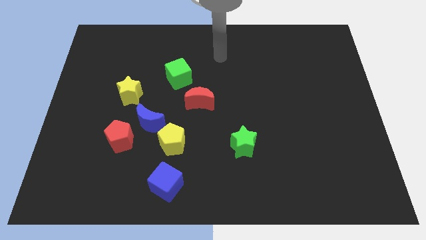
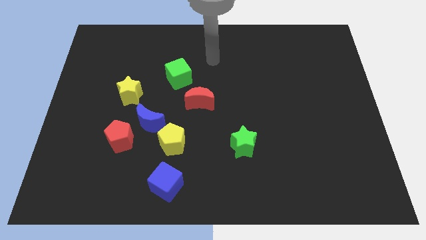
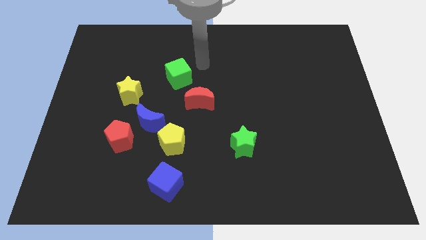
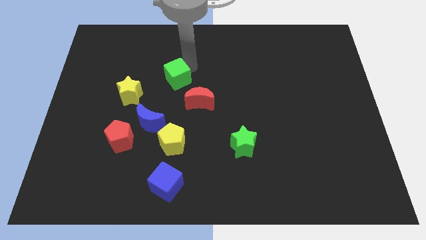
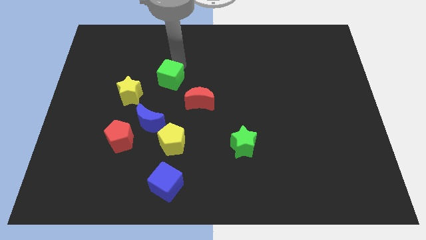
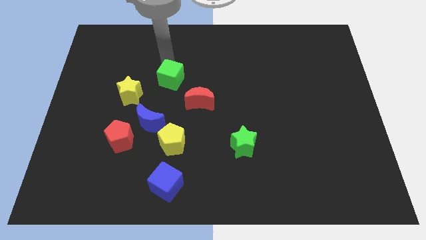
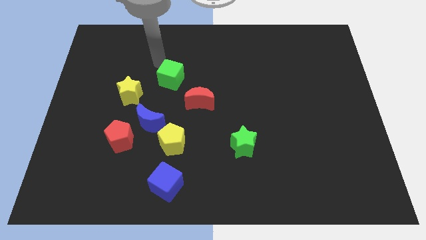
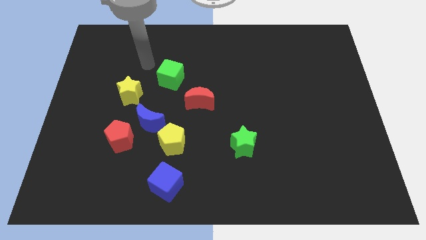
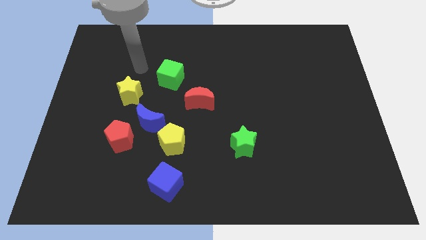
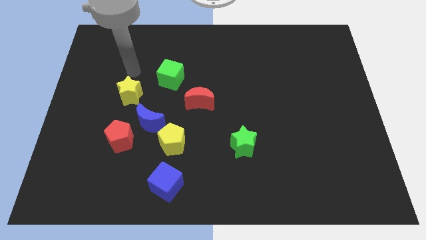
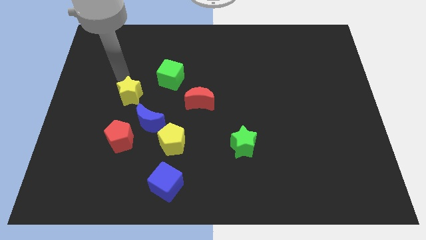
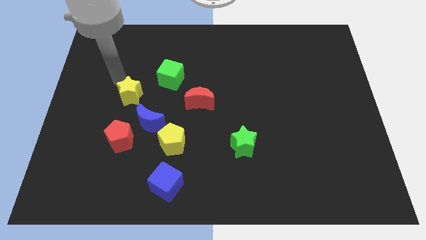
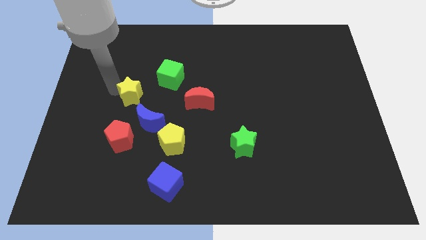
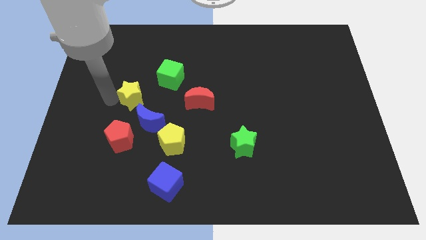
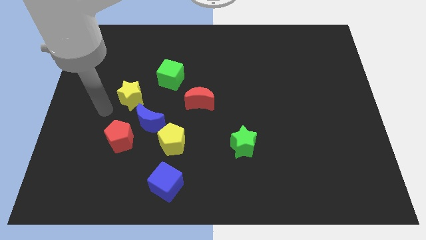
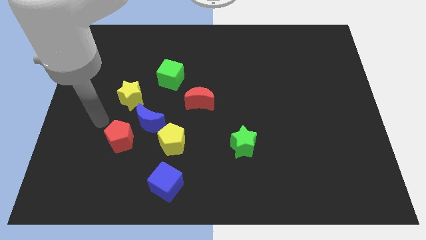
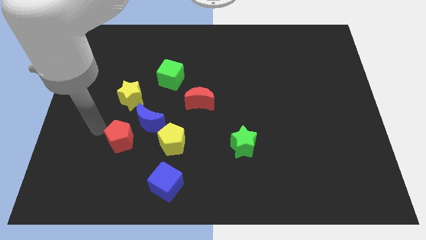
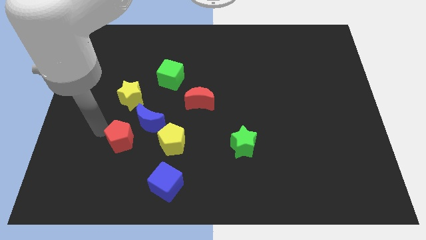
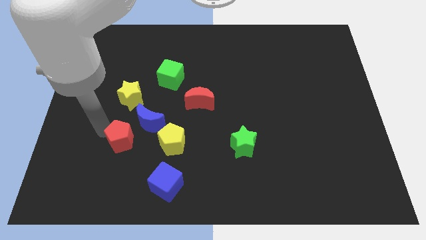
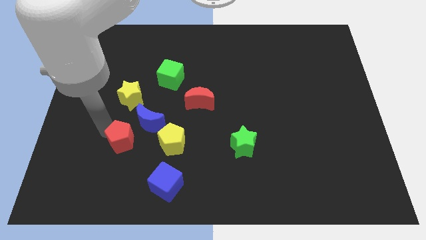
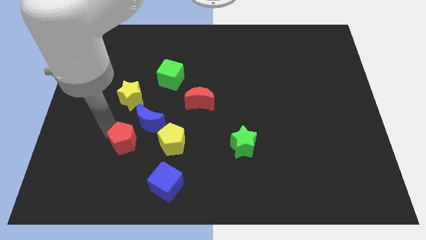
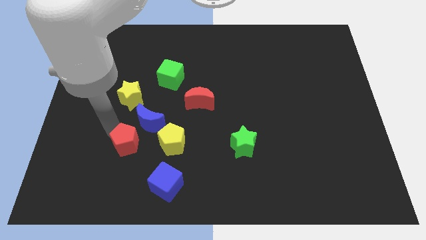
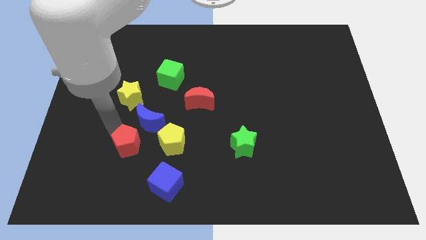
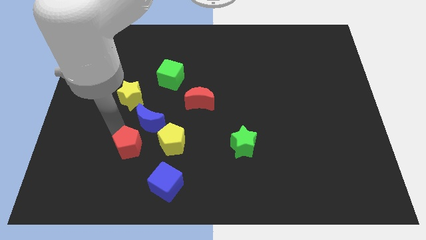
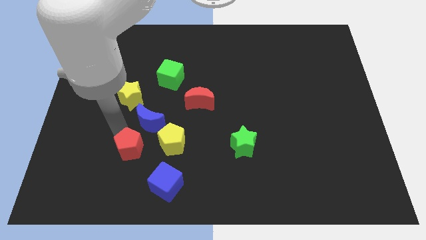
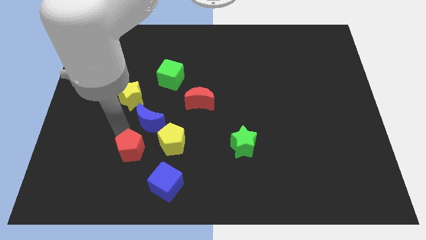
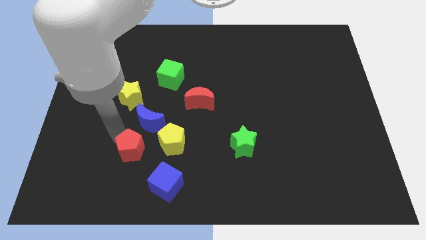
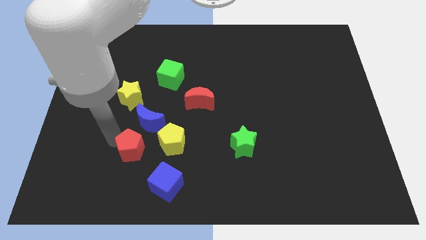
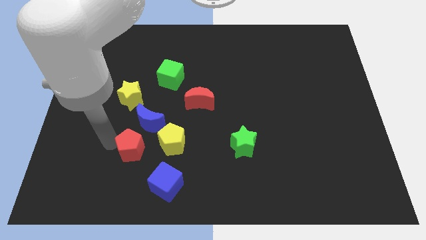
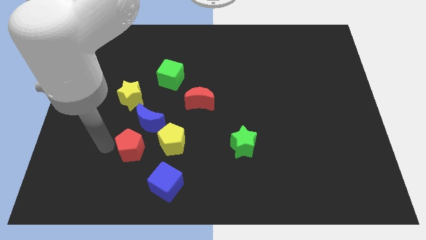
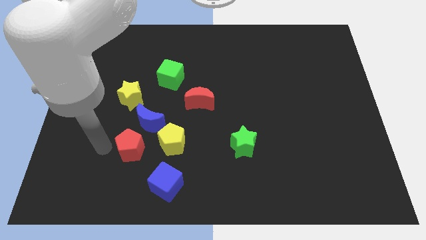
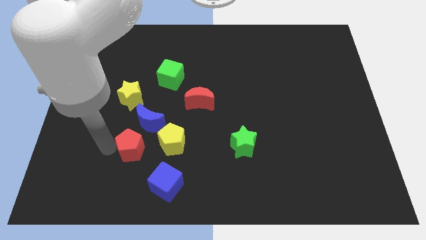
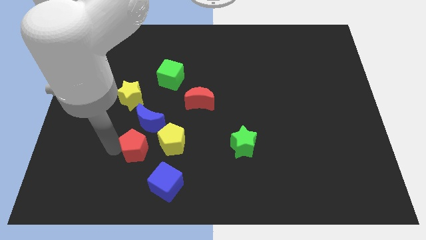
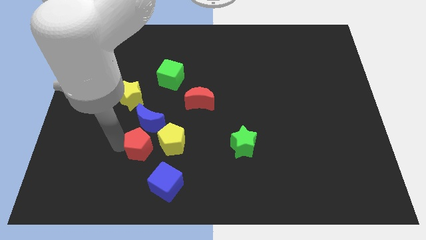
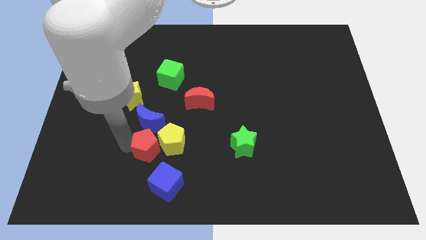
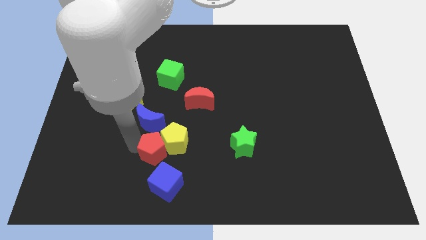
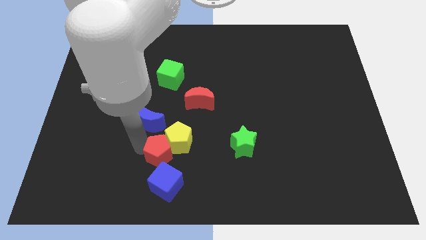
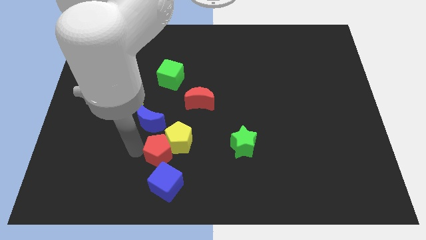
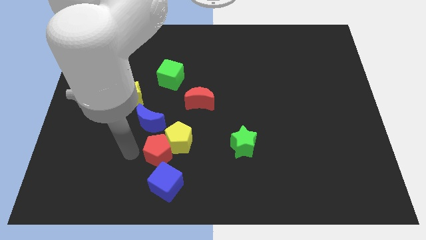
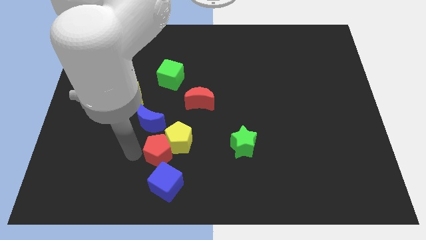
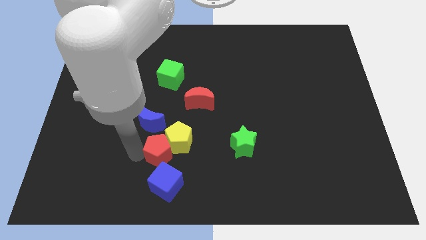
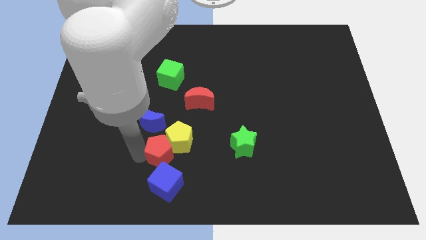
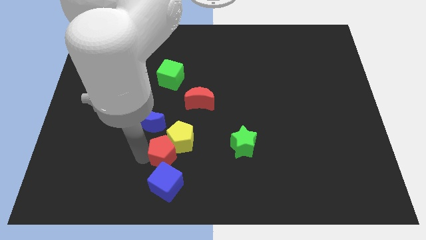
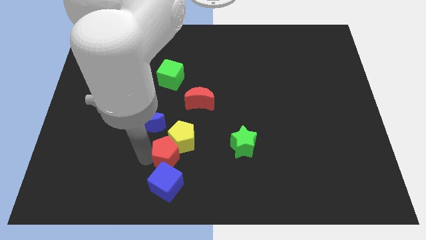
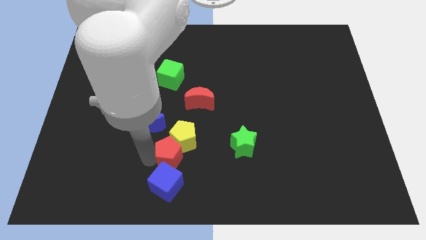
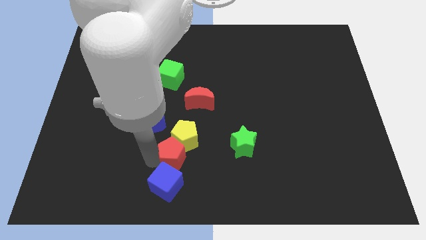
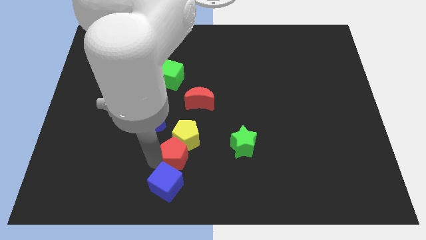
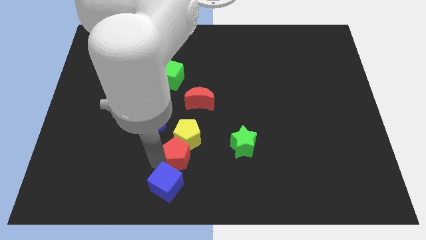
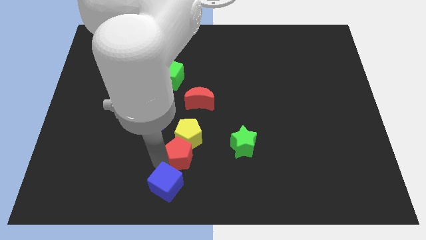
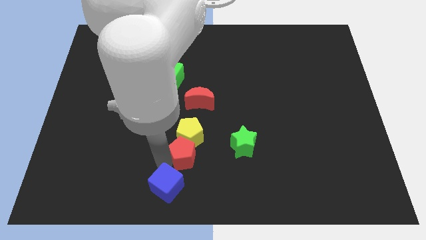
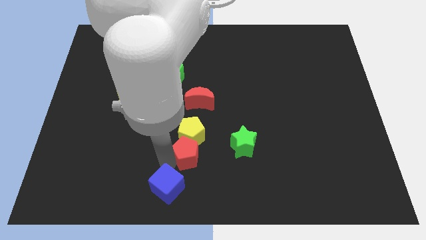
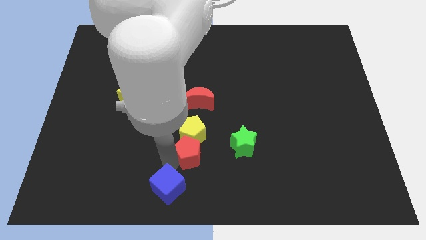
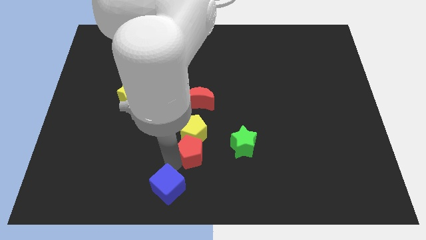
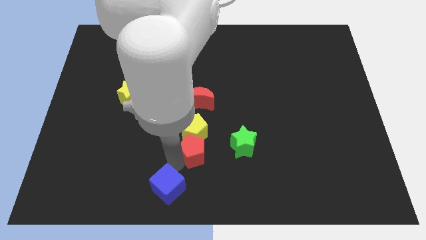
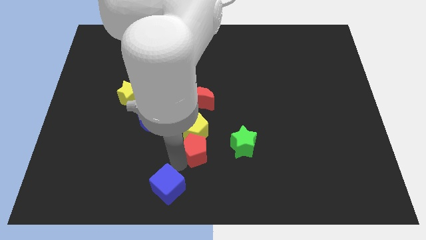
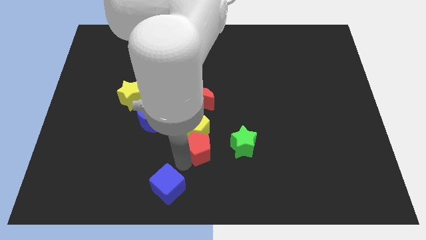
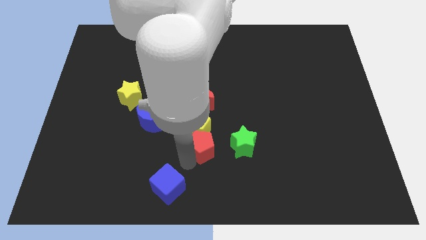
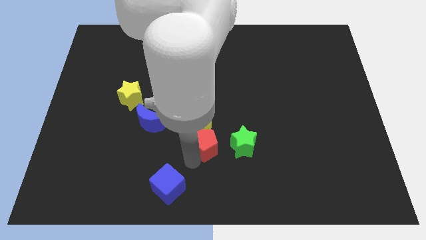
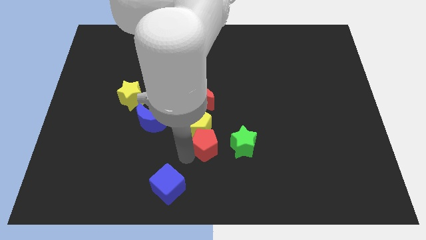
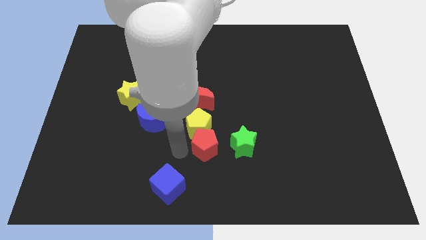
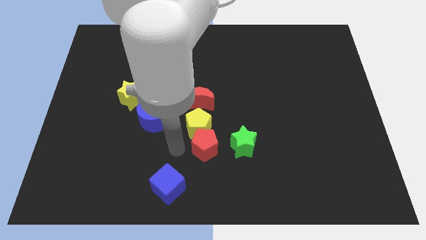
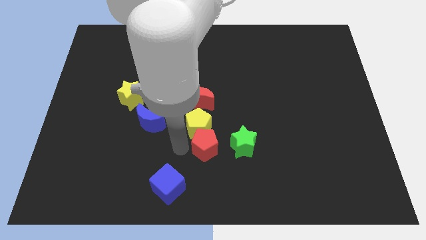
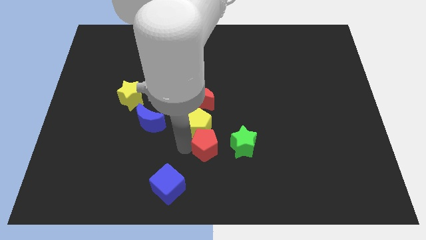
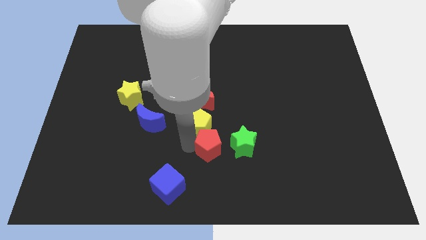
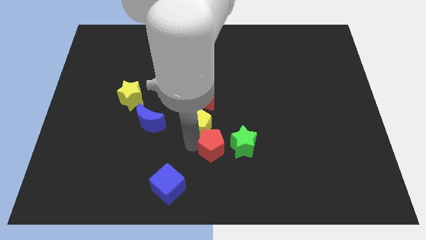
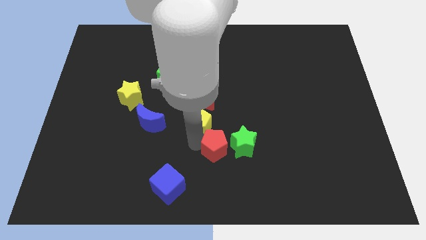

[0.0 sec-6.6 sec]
put the red pentagon next to the green star

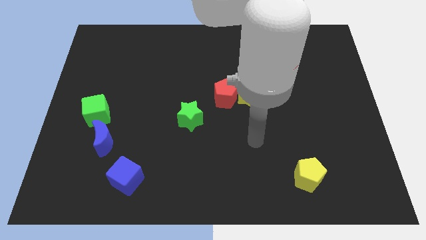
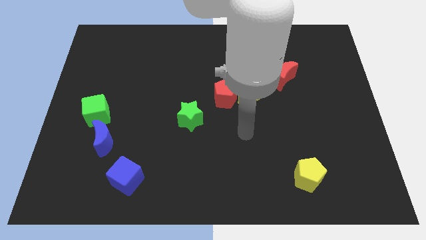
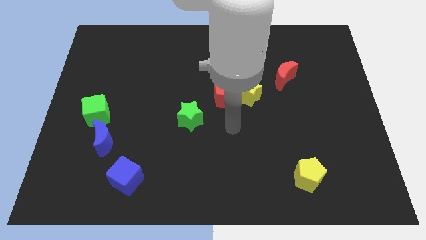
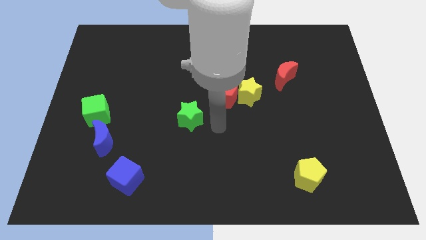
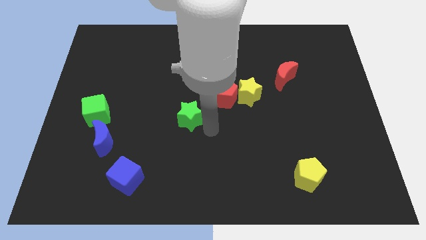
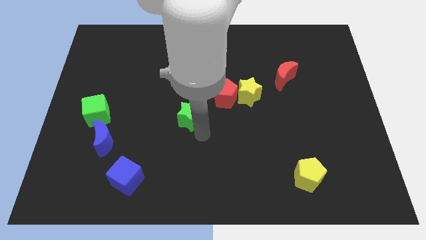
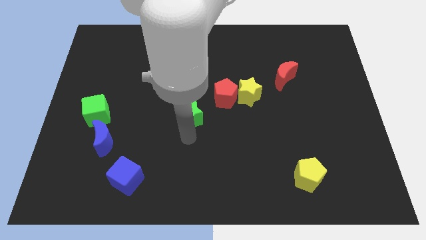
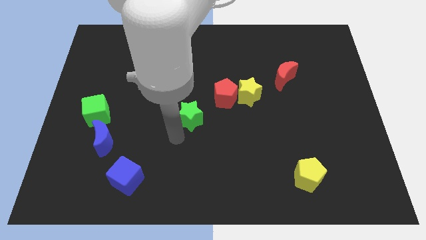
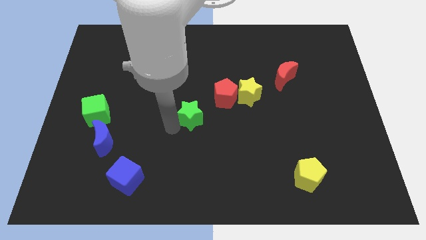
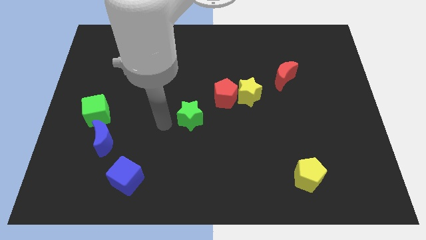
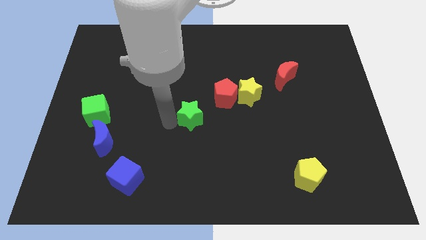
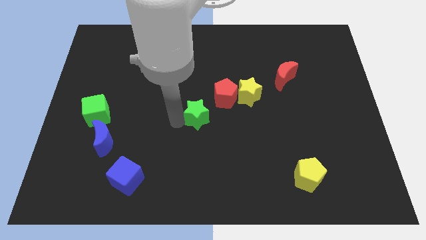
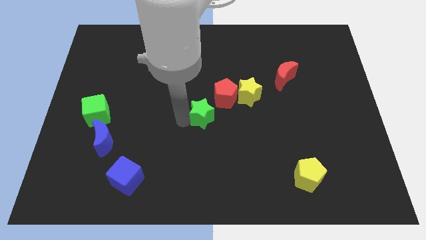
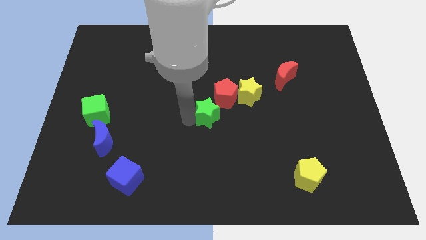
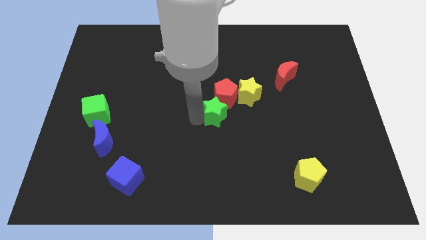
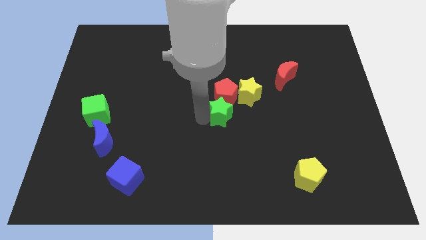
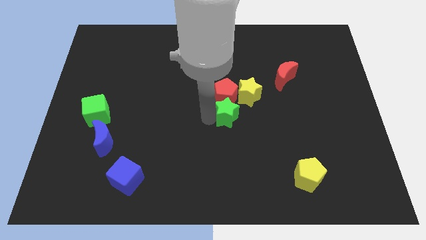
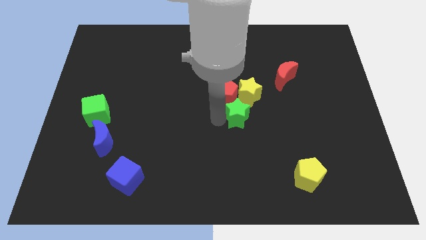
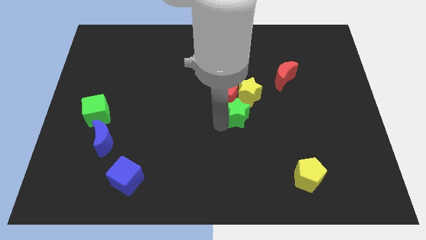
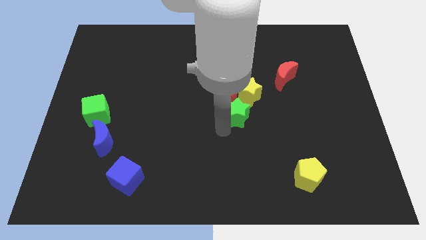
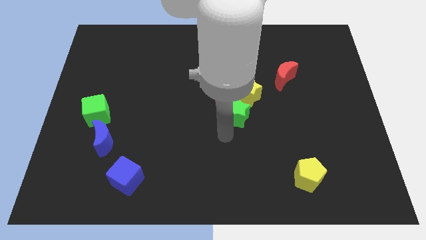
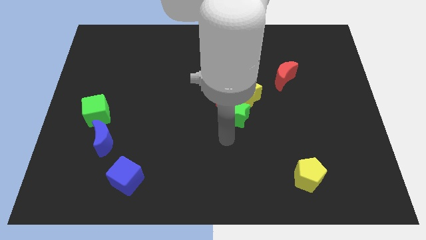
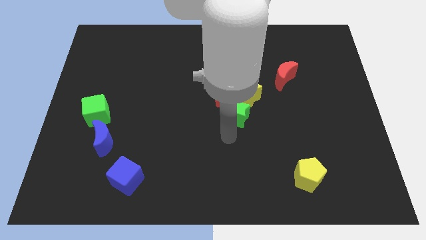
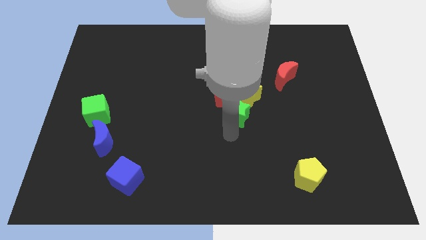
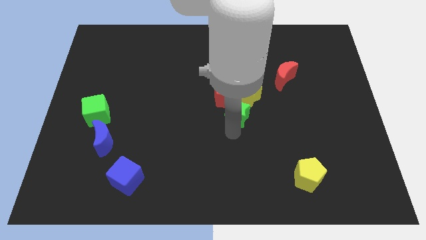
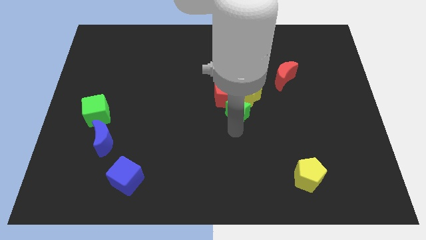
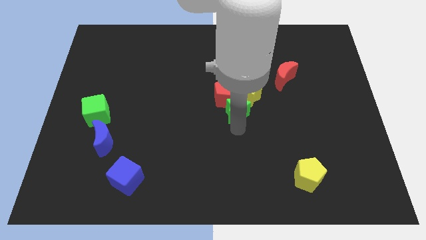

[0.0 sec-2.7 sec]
slide the green star towards the yellow star
